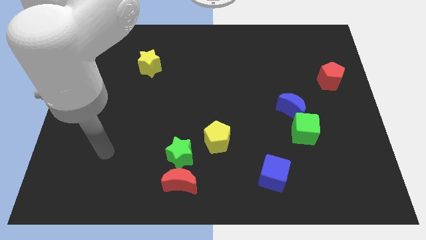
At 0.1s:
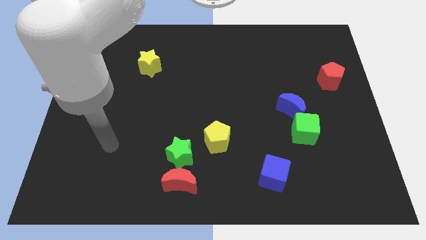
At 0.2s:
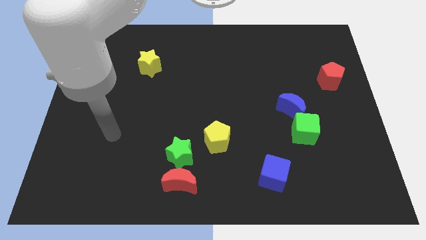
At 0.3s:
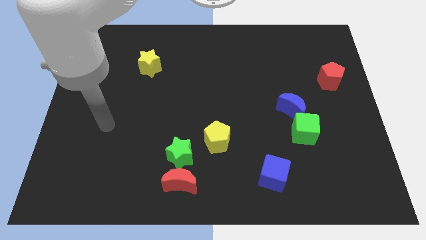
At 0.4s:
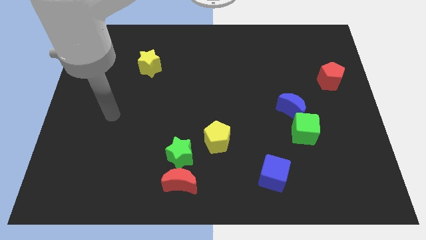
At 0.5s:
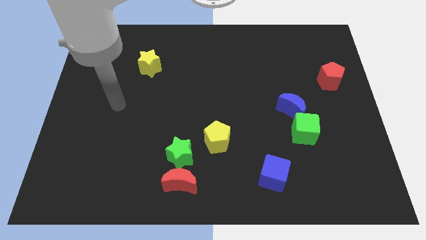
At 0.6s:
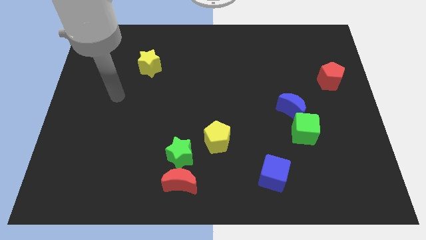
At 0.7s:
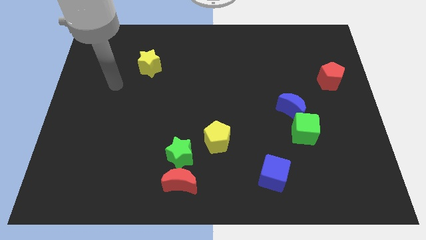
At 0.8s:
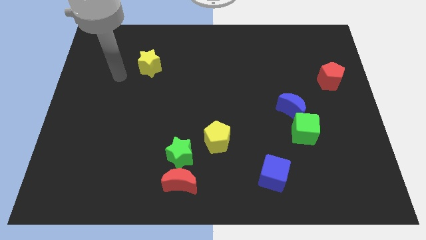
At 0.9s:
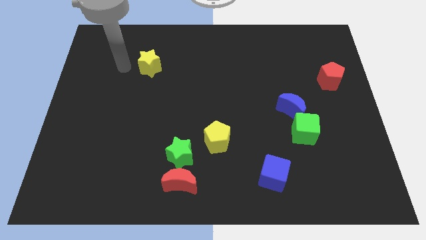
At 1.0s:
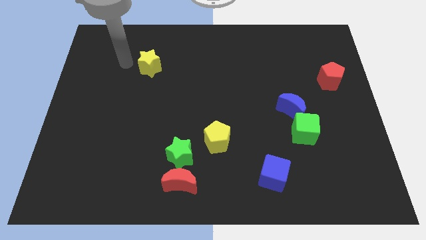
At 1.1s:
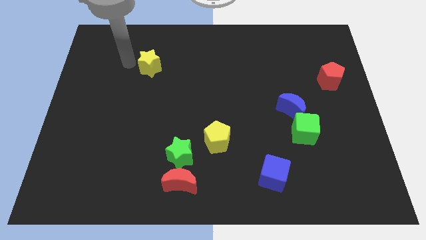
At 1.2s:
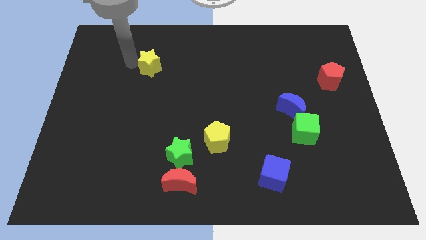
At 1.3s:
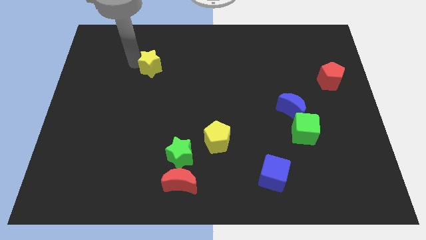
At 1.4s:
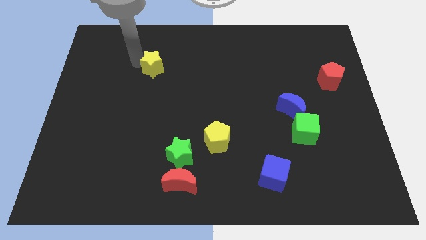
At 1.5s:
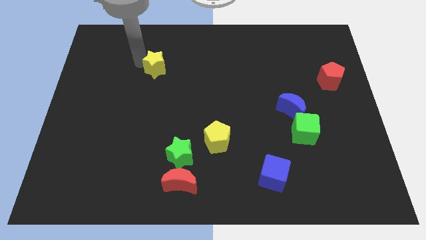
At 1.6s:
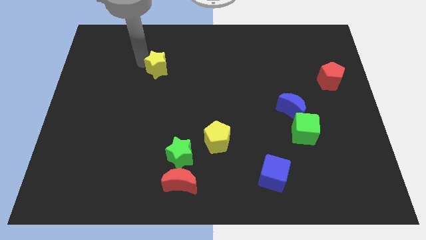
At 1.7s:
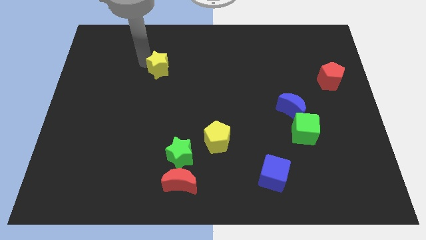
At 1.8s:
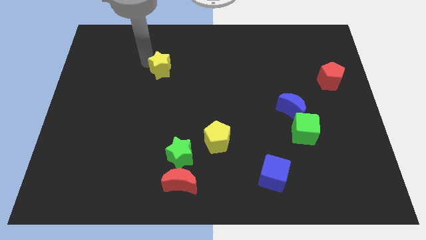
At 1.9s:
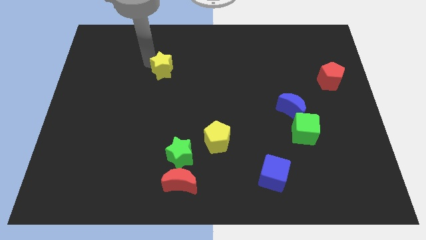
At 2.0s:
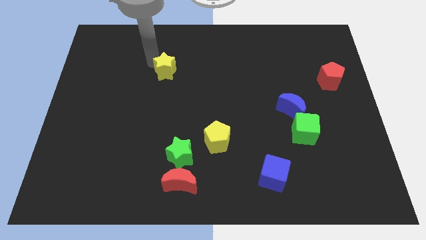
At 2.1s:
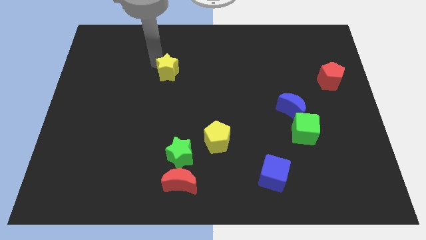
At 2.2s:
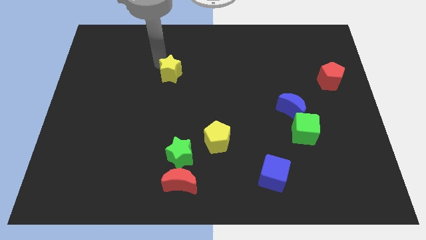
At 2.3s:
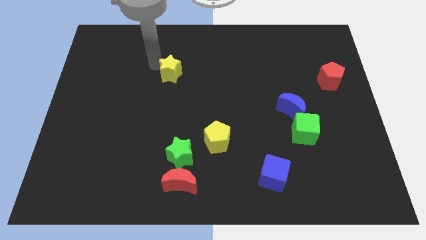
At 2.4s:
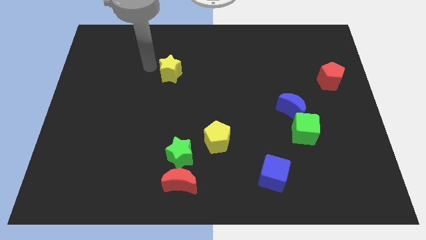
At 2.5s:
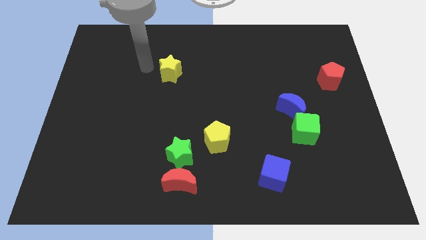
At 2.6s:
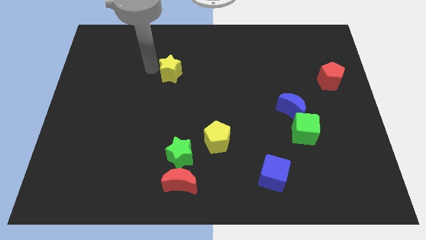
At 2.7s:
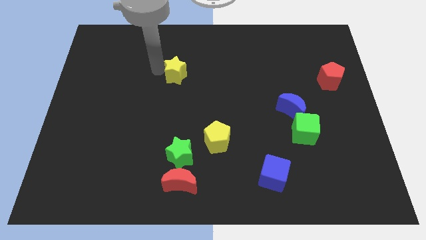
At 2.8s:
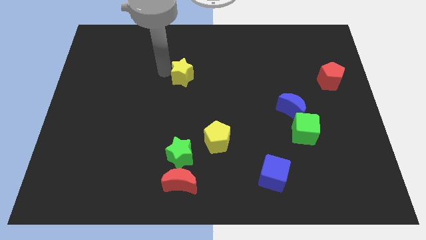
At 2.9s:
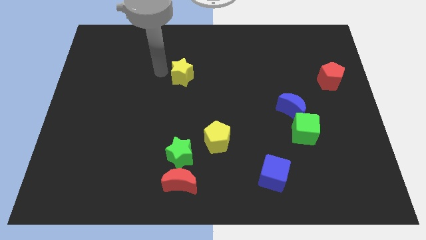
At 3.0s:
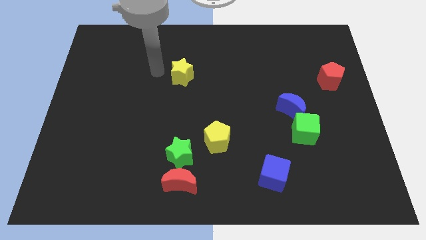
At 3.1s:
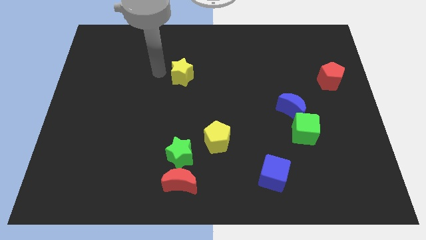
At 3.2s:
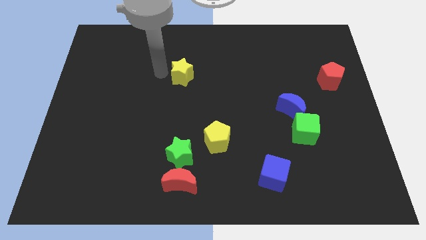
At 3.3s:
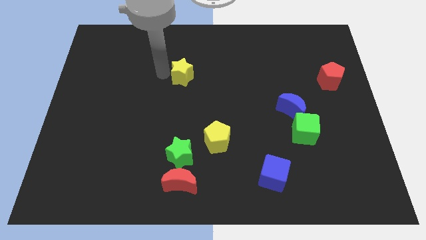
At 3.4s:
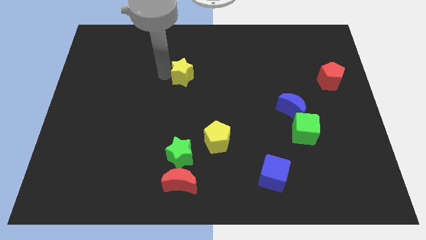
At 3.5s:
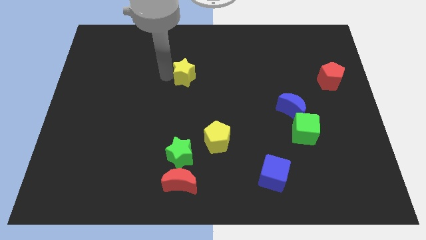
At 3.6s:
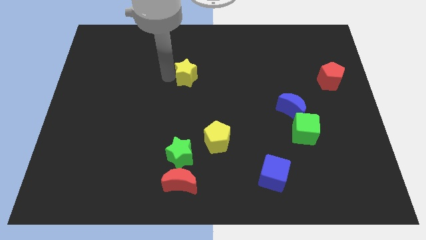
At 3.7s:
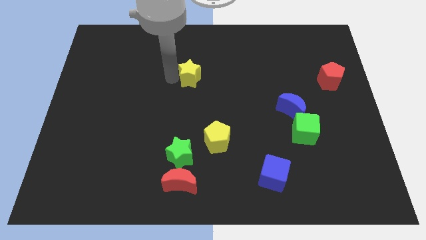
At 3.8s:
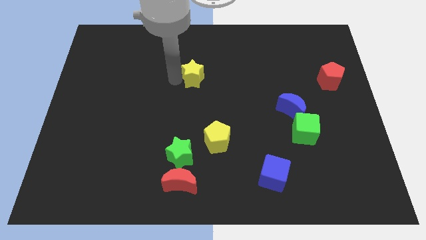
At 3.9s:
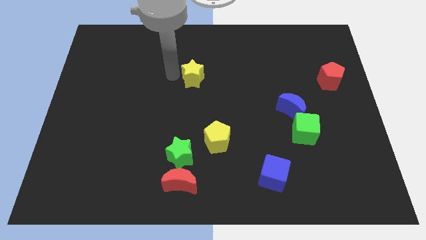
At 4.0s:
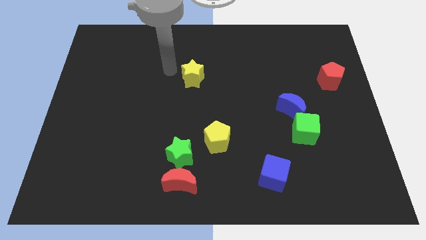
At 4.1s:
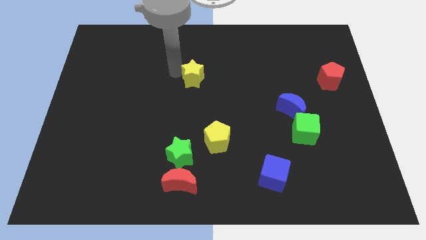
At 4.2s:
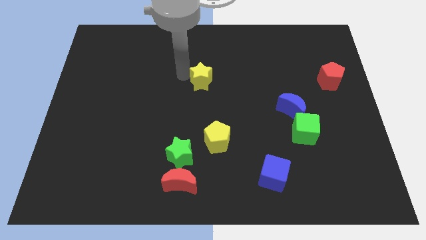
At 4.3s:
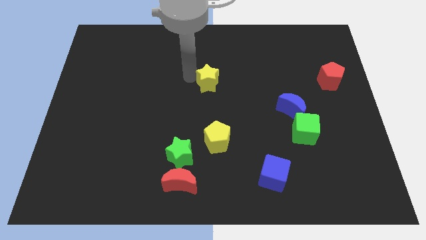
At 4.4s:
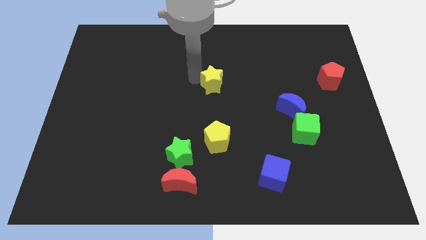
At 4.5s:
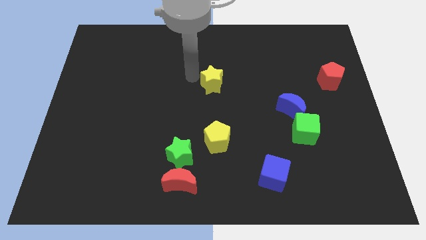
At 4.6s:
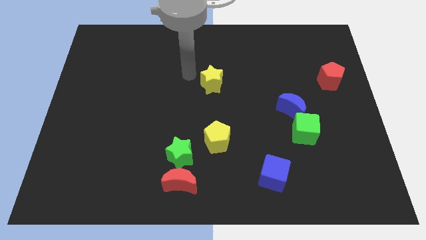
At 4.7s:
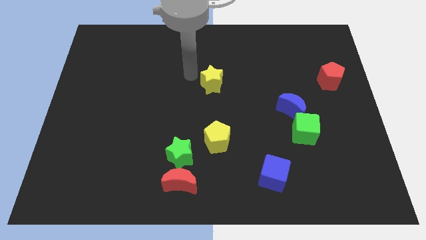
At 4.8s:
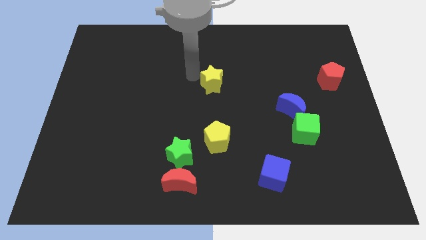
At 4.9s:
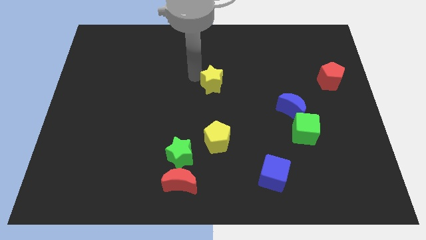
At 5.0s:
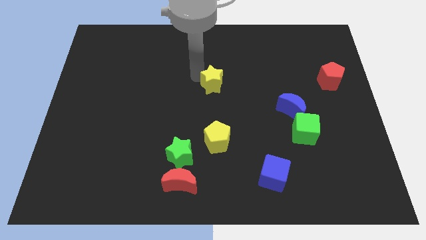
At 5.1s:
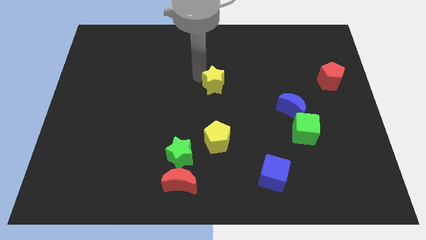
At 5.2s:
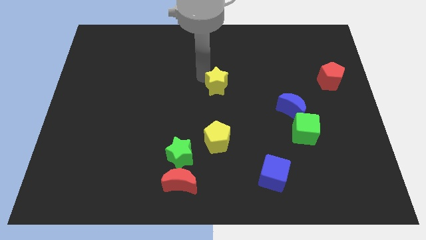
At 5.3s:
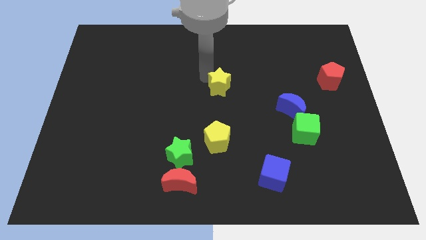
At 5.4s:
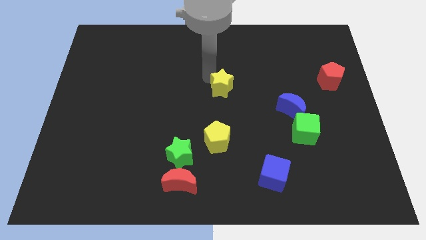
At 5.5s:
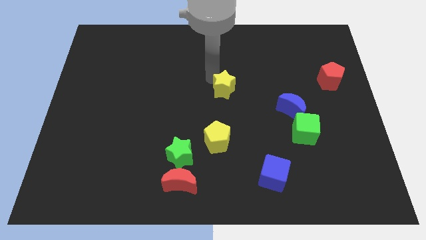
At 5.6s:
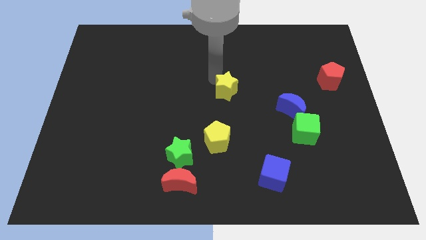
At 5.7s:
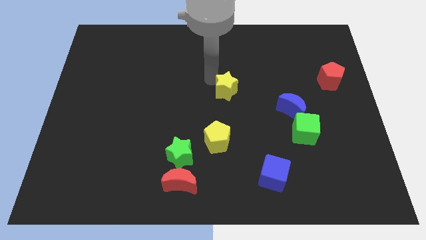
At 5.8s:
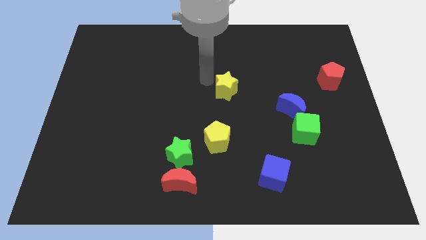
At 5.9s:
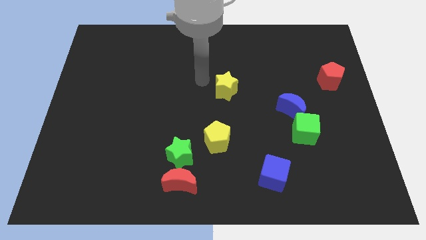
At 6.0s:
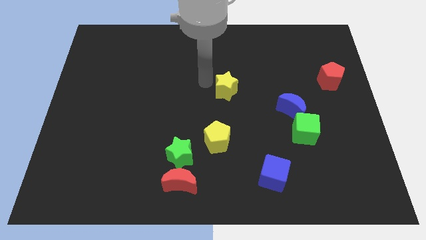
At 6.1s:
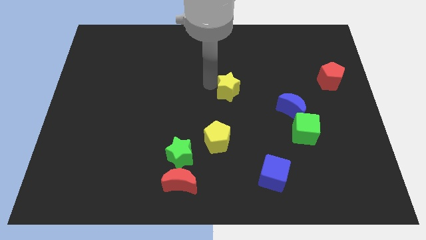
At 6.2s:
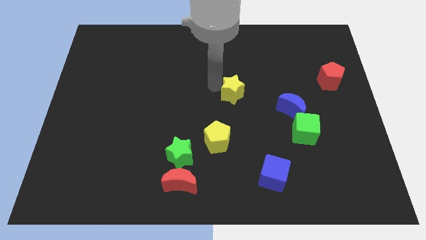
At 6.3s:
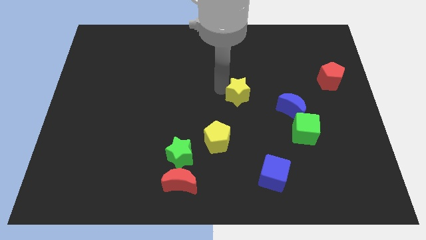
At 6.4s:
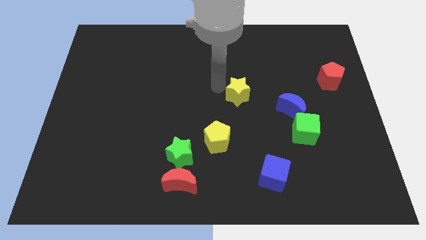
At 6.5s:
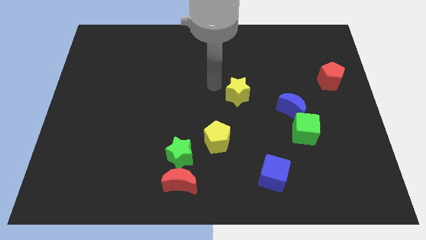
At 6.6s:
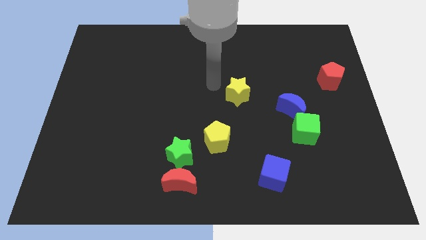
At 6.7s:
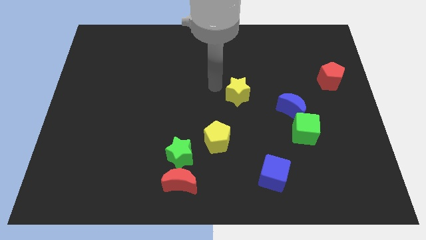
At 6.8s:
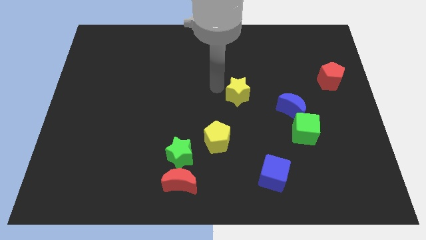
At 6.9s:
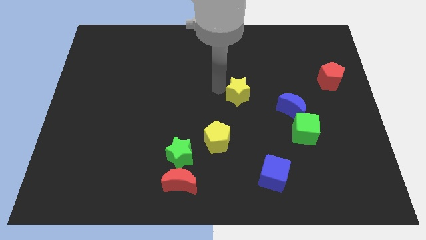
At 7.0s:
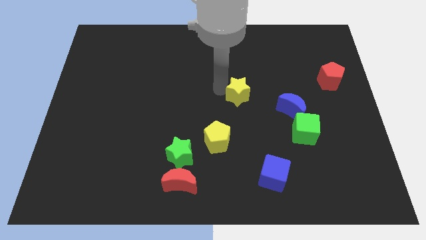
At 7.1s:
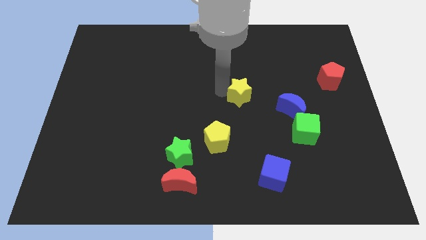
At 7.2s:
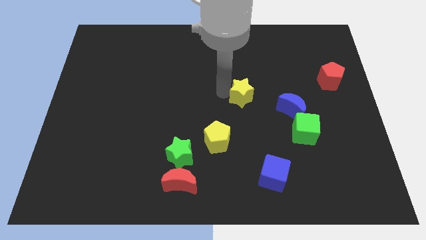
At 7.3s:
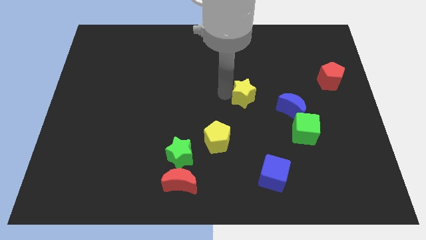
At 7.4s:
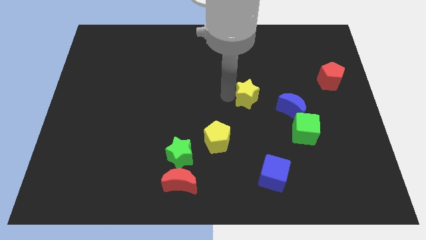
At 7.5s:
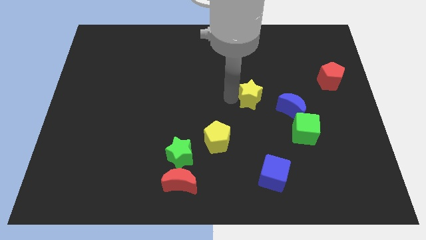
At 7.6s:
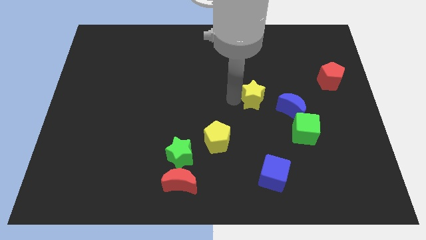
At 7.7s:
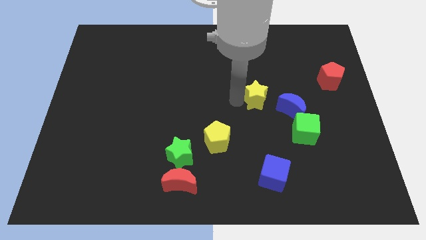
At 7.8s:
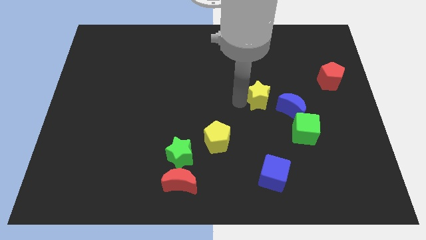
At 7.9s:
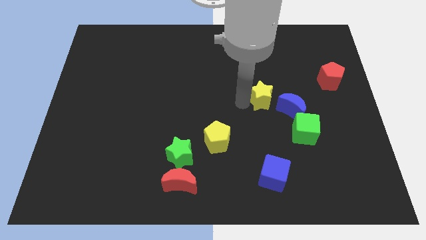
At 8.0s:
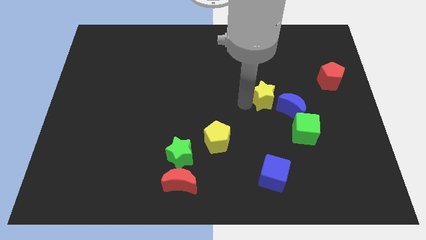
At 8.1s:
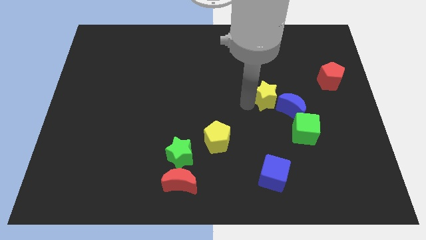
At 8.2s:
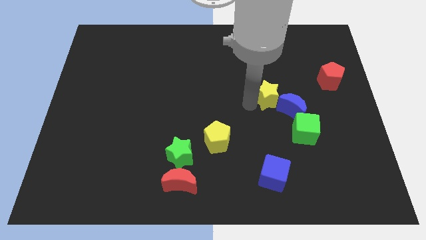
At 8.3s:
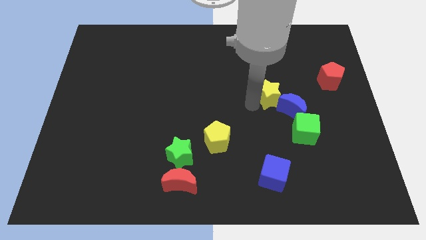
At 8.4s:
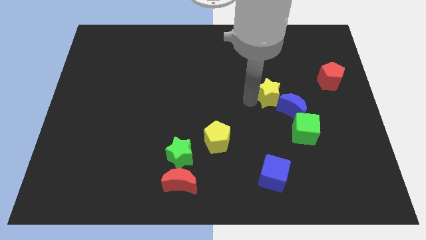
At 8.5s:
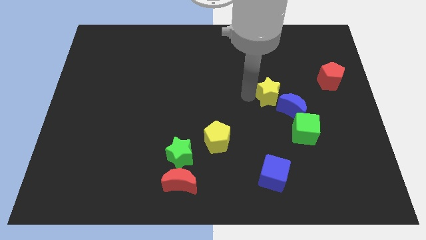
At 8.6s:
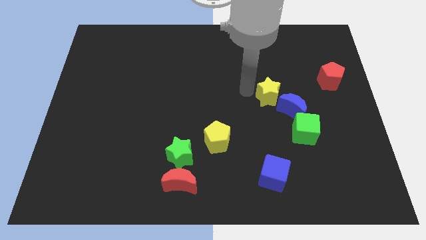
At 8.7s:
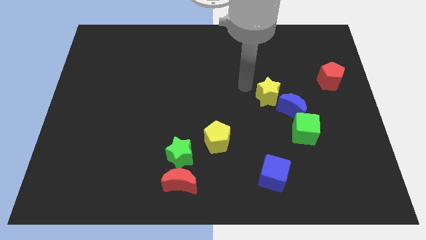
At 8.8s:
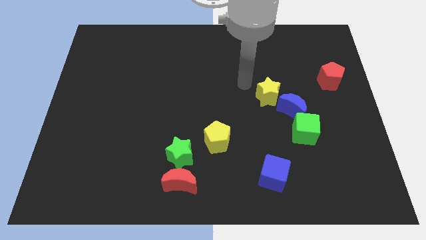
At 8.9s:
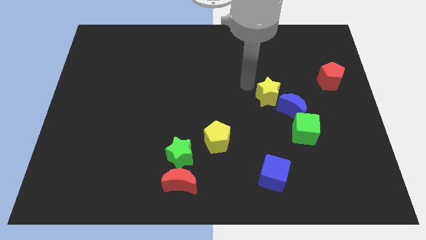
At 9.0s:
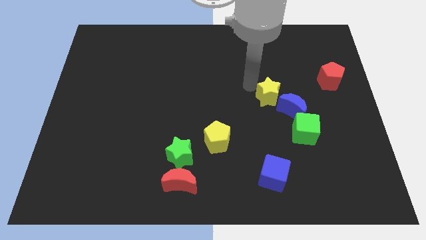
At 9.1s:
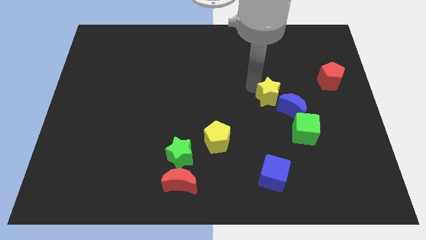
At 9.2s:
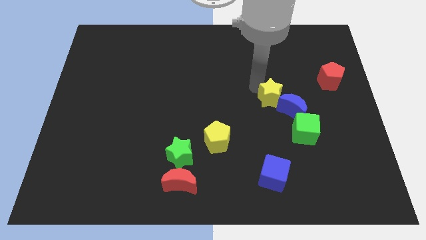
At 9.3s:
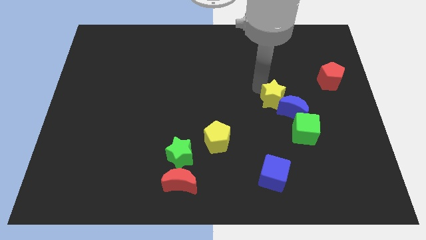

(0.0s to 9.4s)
put the yellow star towards the blue moon
